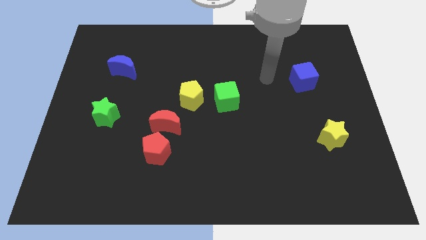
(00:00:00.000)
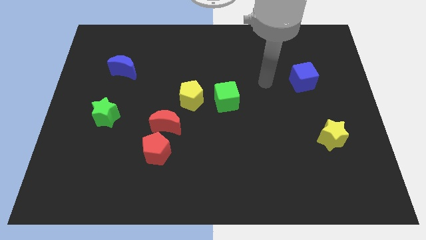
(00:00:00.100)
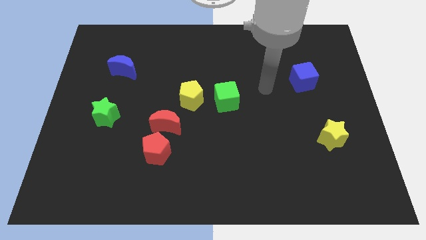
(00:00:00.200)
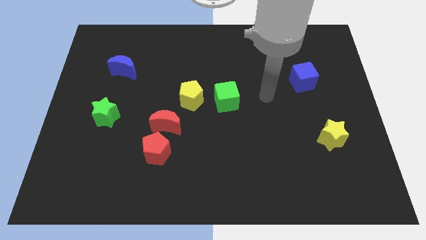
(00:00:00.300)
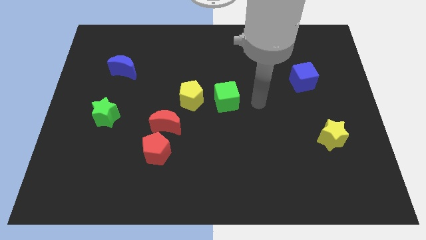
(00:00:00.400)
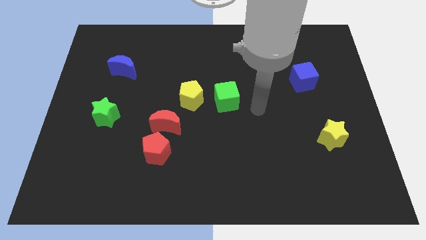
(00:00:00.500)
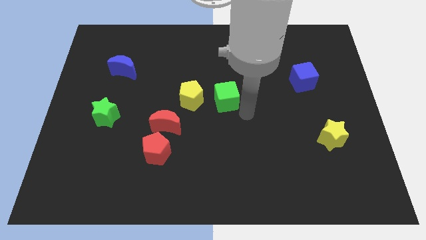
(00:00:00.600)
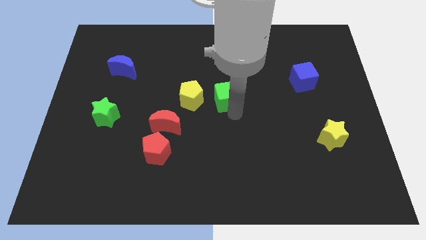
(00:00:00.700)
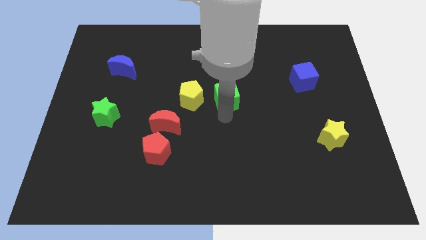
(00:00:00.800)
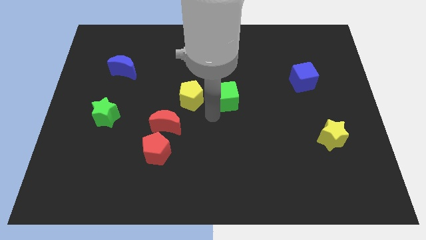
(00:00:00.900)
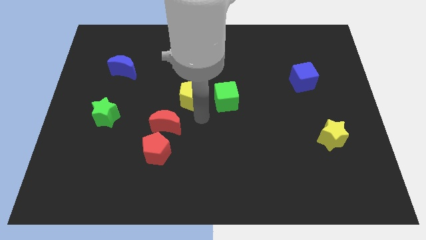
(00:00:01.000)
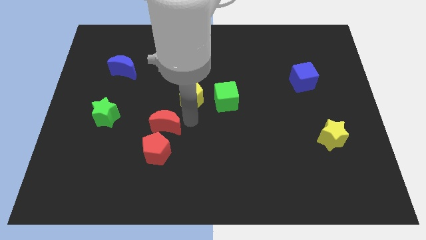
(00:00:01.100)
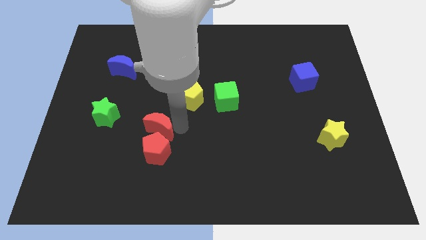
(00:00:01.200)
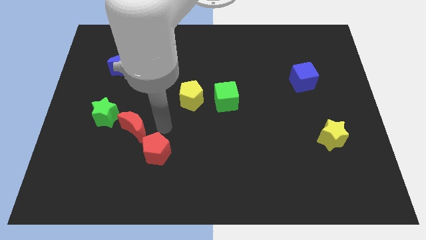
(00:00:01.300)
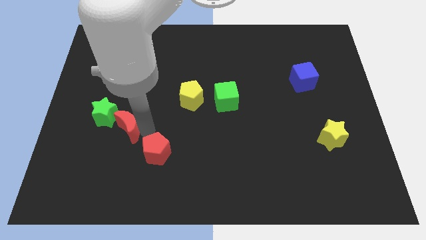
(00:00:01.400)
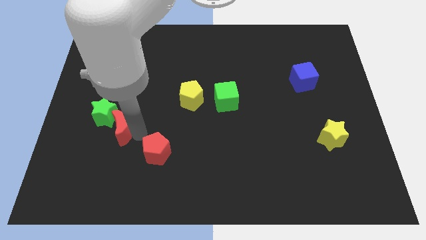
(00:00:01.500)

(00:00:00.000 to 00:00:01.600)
move the red pentagon away from the red moon

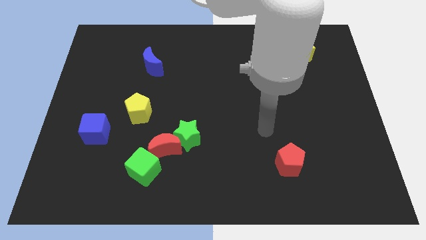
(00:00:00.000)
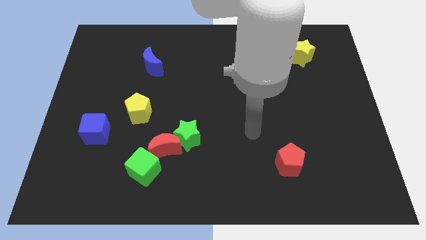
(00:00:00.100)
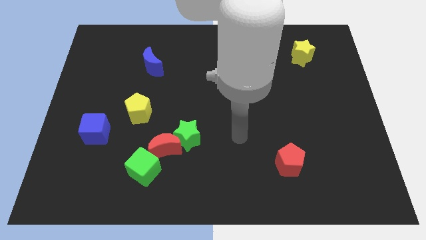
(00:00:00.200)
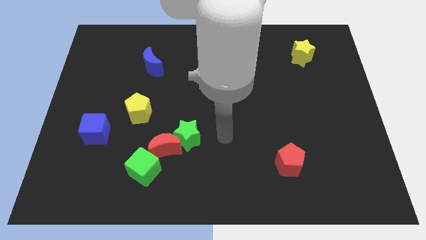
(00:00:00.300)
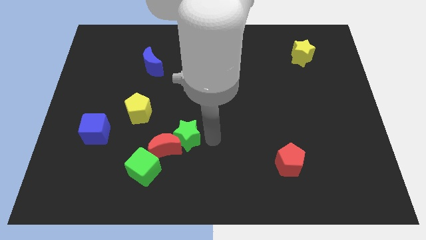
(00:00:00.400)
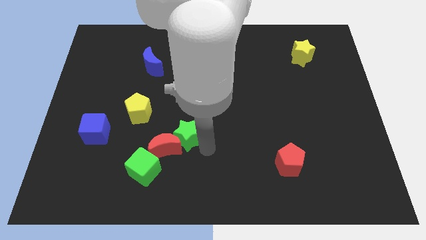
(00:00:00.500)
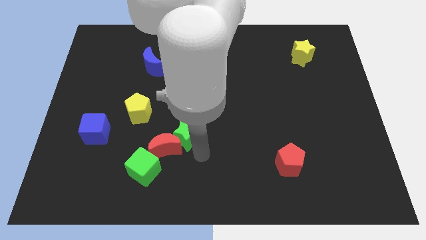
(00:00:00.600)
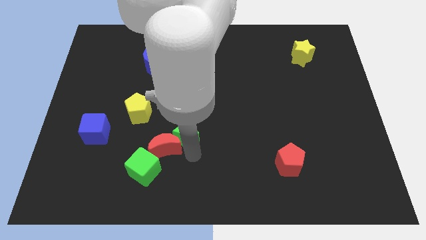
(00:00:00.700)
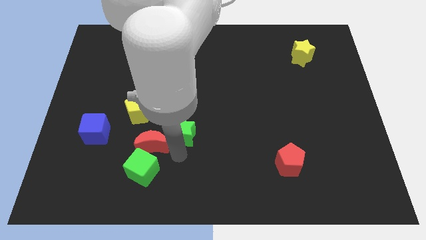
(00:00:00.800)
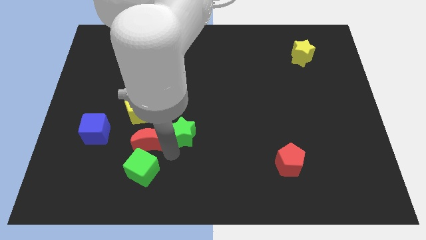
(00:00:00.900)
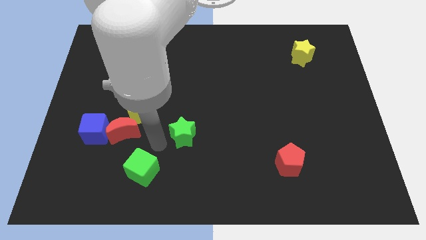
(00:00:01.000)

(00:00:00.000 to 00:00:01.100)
pull the green star apart from the red moon

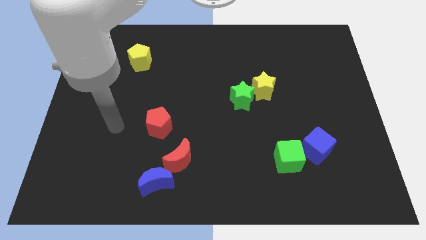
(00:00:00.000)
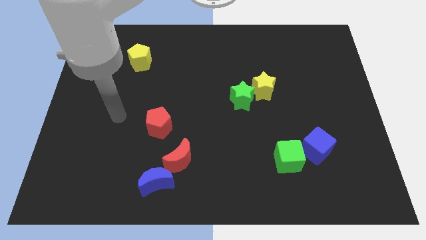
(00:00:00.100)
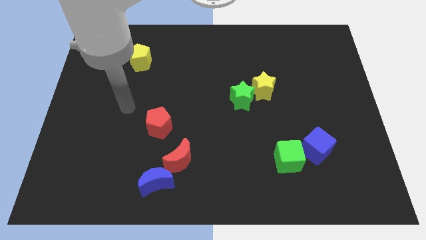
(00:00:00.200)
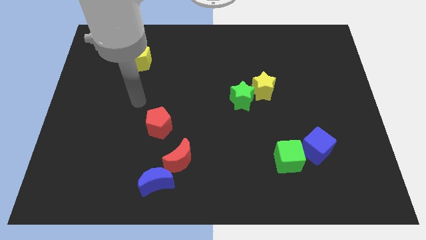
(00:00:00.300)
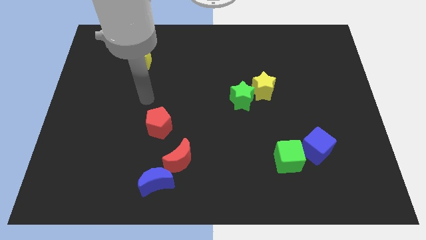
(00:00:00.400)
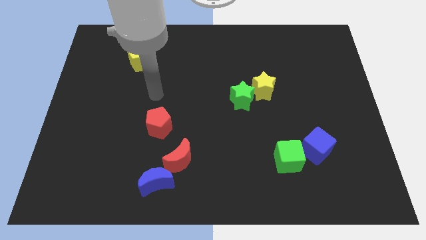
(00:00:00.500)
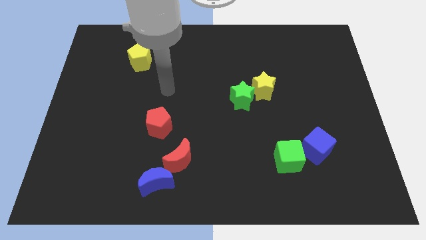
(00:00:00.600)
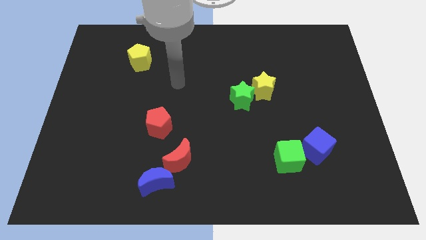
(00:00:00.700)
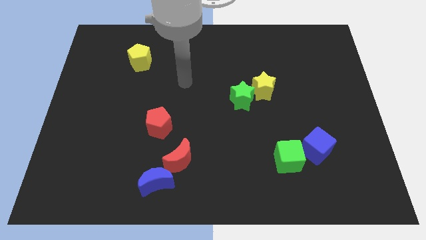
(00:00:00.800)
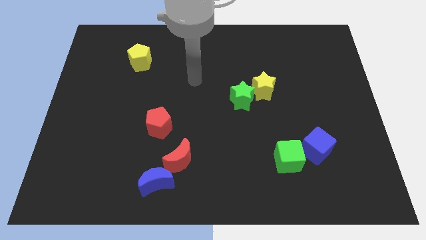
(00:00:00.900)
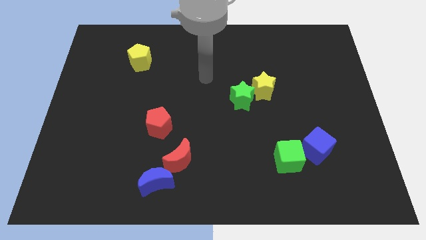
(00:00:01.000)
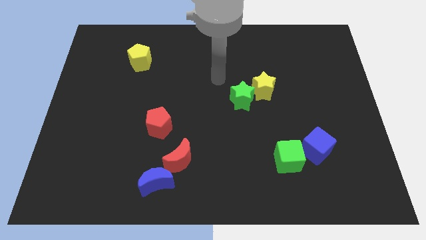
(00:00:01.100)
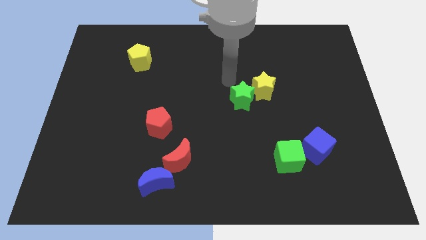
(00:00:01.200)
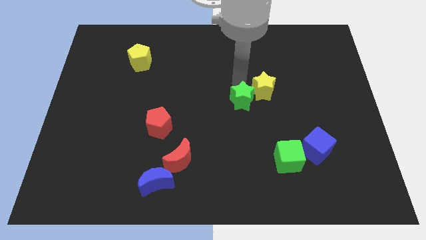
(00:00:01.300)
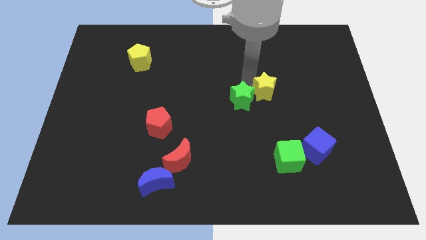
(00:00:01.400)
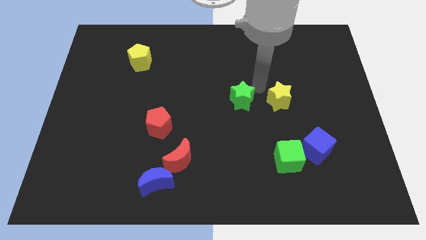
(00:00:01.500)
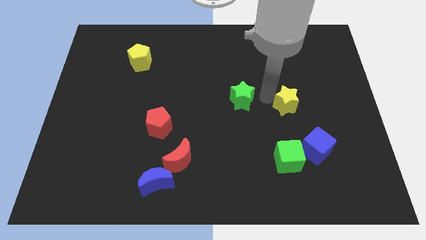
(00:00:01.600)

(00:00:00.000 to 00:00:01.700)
pull the green star apart from the yellow star

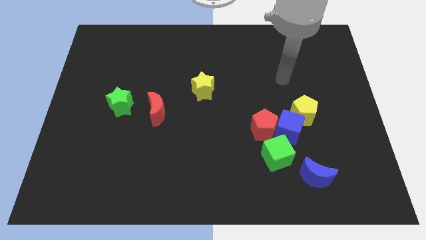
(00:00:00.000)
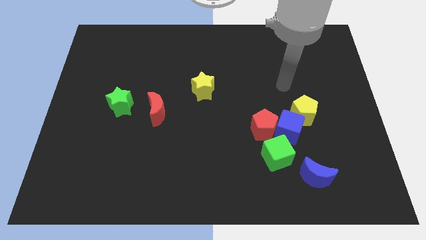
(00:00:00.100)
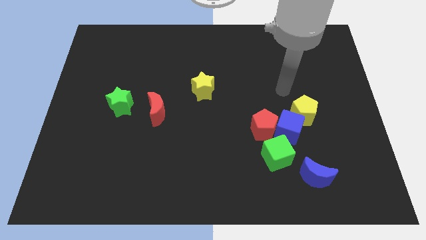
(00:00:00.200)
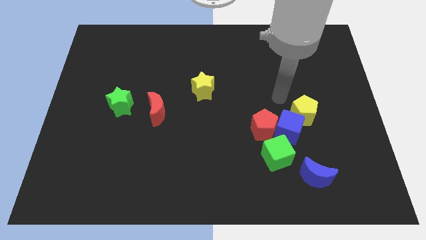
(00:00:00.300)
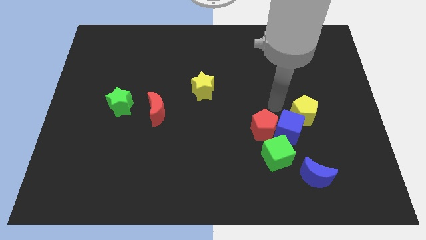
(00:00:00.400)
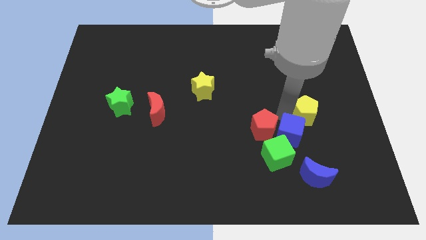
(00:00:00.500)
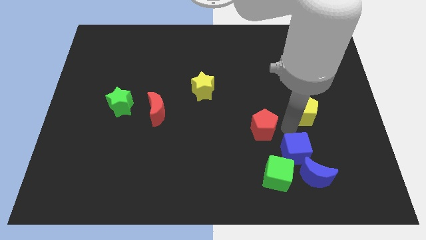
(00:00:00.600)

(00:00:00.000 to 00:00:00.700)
separate the yellow pentagon from the blue cube

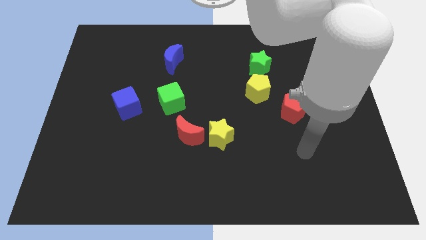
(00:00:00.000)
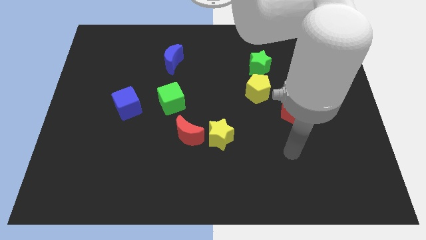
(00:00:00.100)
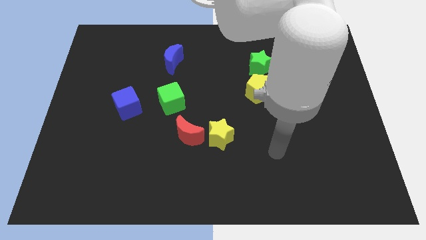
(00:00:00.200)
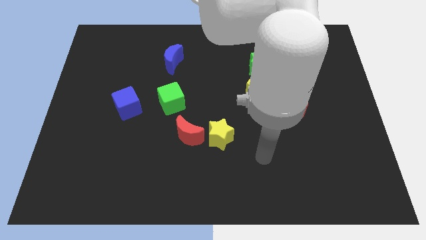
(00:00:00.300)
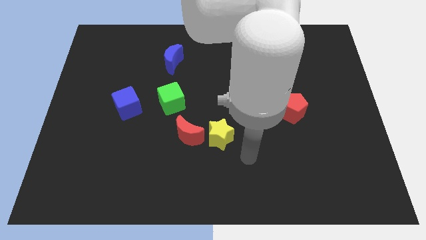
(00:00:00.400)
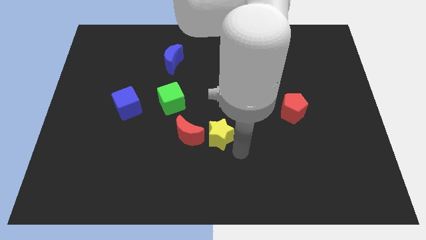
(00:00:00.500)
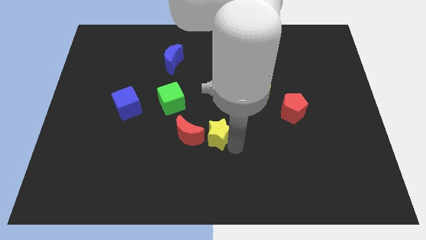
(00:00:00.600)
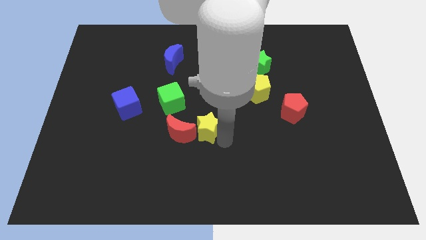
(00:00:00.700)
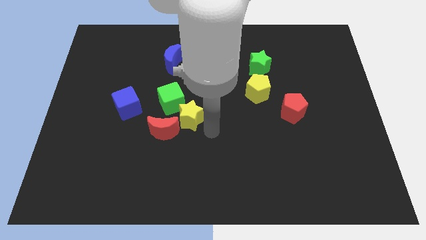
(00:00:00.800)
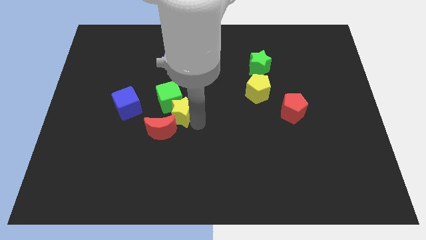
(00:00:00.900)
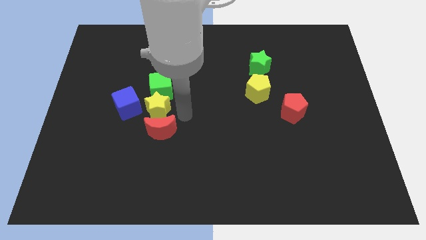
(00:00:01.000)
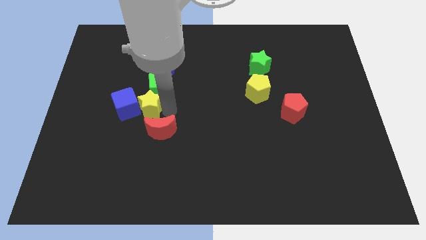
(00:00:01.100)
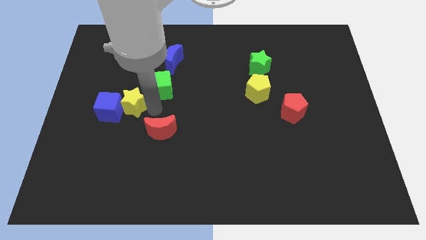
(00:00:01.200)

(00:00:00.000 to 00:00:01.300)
pull the red moon apart from the yellow star

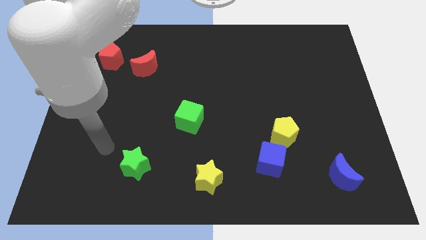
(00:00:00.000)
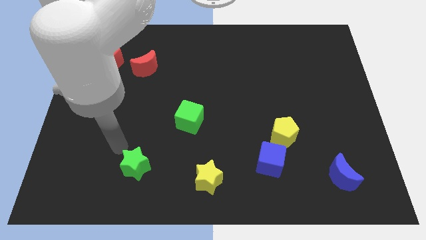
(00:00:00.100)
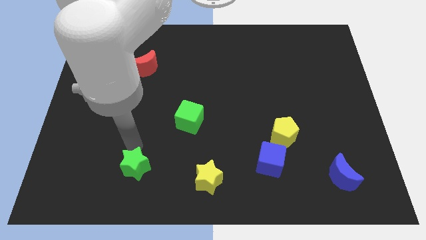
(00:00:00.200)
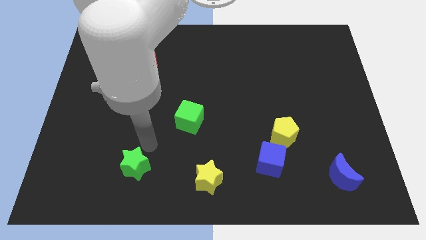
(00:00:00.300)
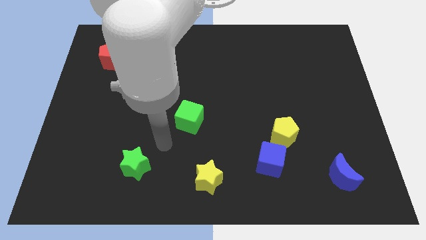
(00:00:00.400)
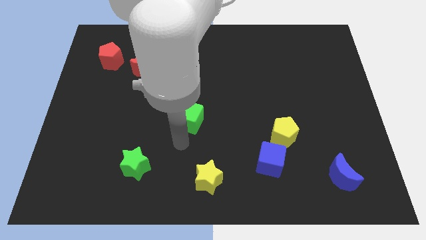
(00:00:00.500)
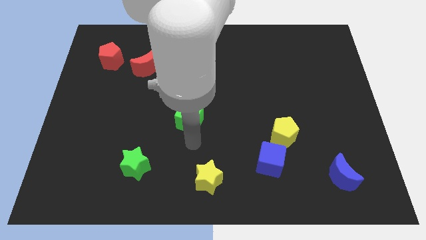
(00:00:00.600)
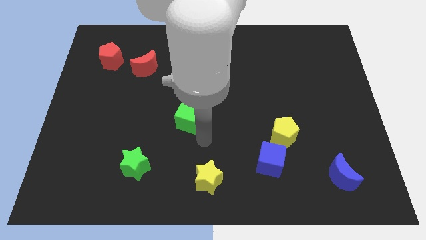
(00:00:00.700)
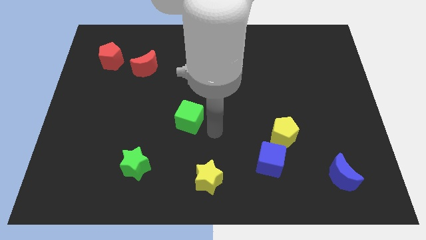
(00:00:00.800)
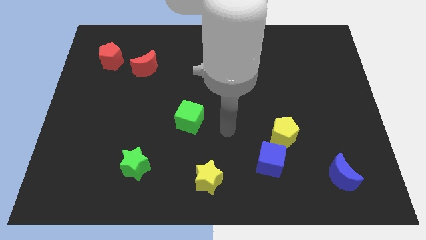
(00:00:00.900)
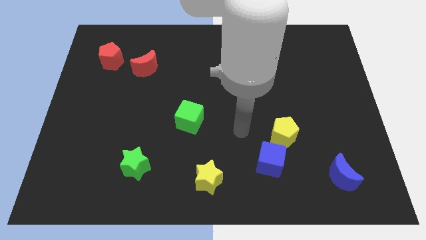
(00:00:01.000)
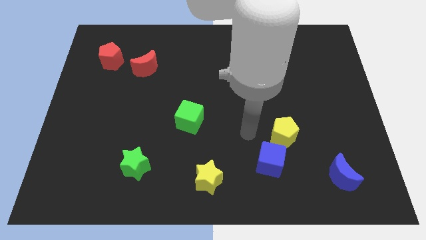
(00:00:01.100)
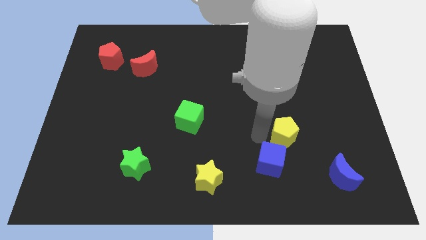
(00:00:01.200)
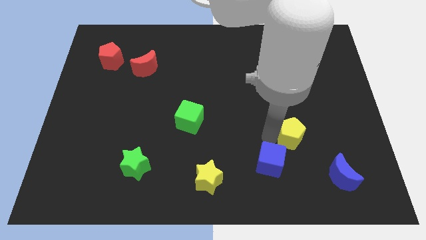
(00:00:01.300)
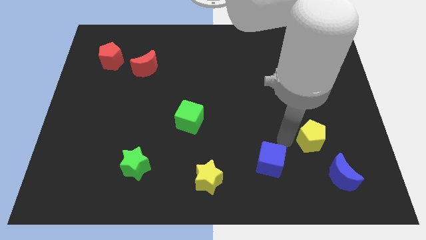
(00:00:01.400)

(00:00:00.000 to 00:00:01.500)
move the blue cube away from the yellow pentagon

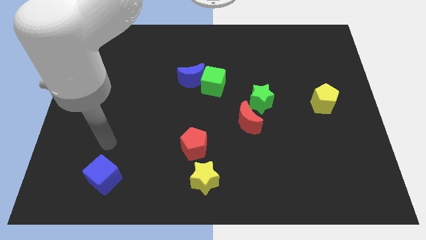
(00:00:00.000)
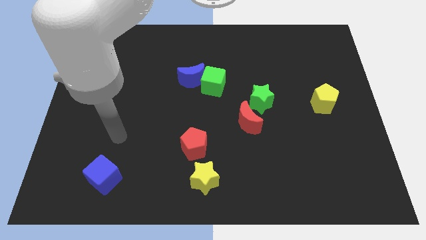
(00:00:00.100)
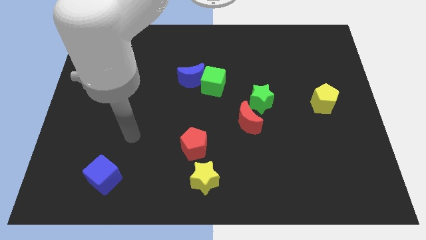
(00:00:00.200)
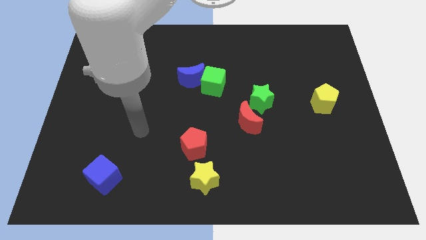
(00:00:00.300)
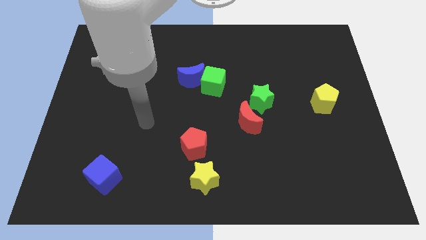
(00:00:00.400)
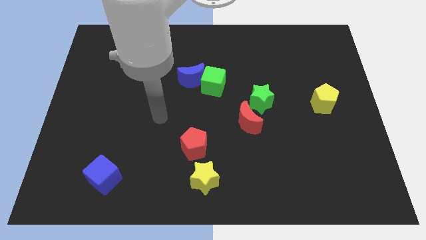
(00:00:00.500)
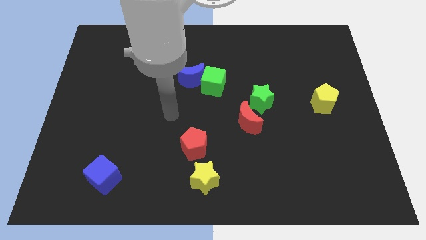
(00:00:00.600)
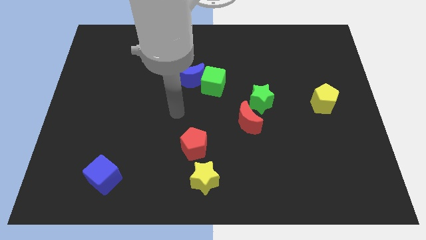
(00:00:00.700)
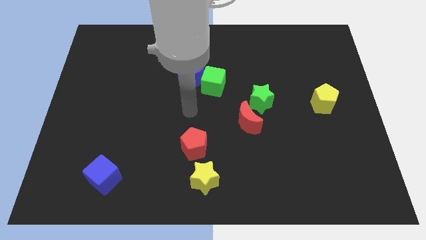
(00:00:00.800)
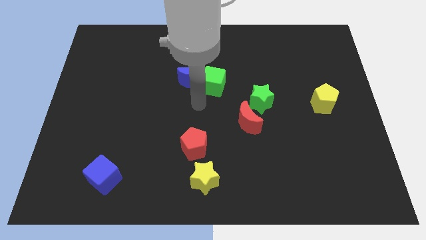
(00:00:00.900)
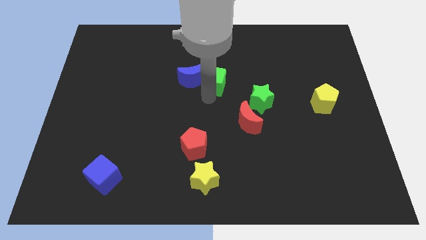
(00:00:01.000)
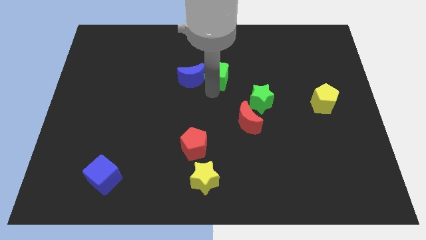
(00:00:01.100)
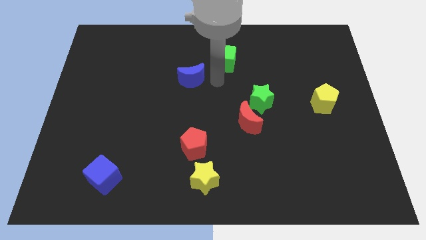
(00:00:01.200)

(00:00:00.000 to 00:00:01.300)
separate the blue moon from the green cube
